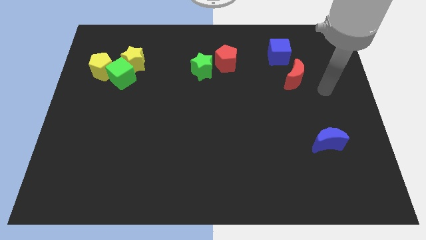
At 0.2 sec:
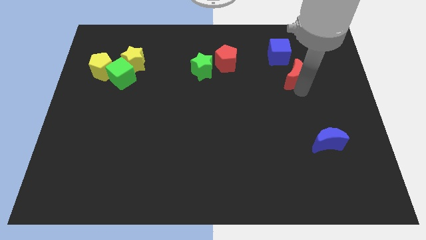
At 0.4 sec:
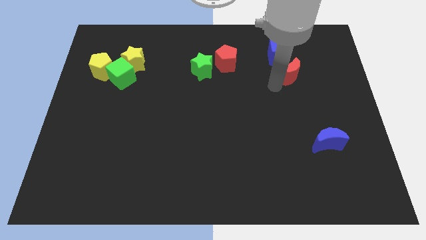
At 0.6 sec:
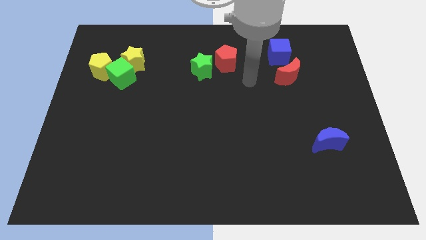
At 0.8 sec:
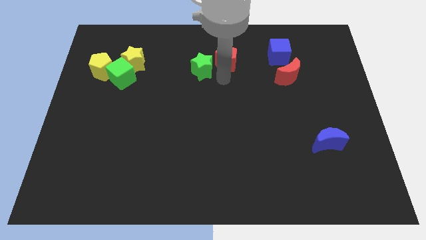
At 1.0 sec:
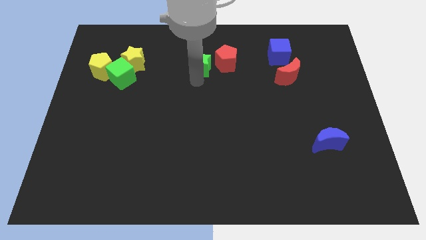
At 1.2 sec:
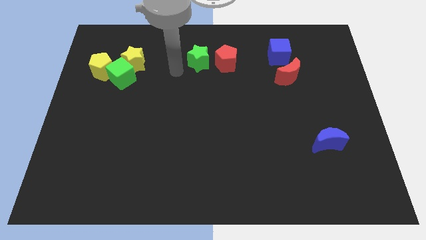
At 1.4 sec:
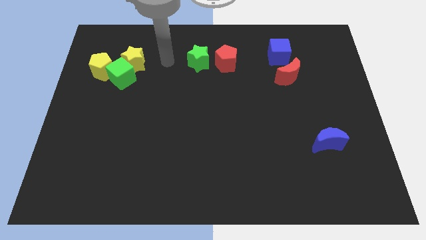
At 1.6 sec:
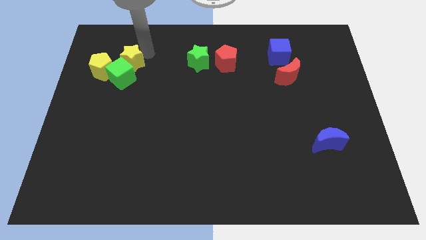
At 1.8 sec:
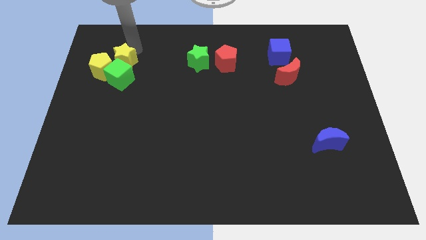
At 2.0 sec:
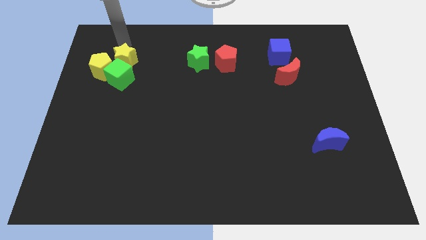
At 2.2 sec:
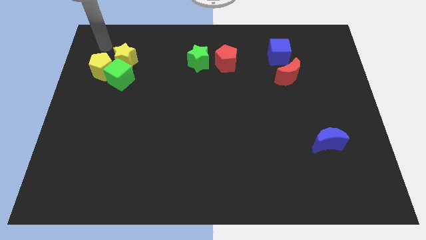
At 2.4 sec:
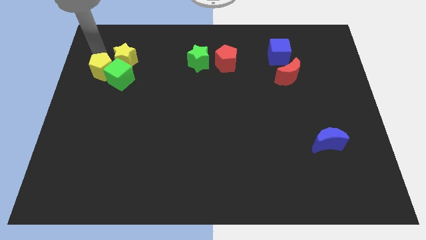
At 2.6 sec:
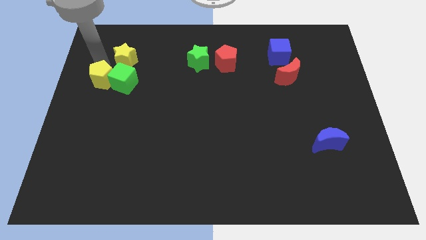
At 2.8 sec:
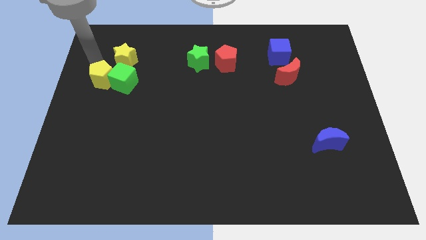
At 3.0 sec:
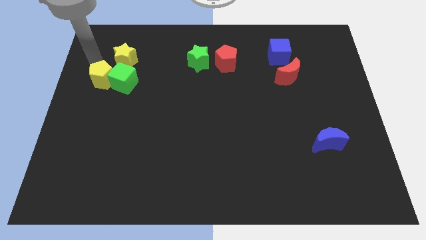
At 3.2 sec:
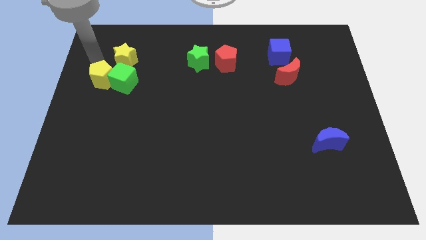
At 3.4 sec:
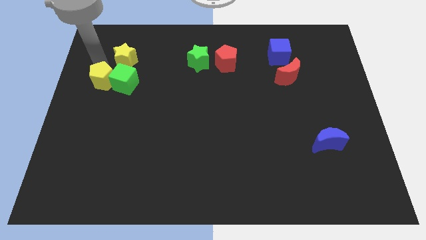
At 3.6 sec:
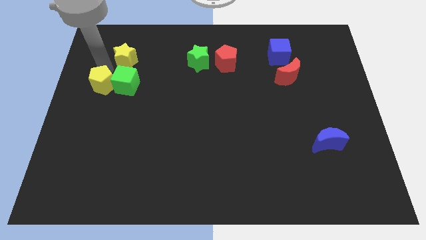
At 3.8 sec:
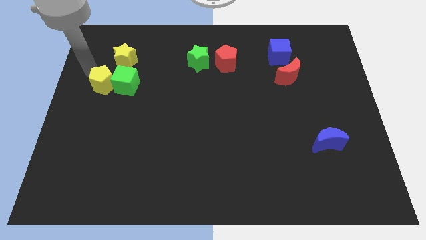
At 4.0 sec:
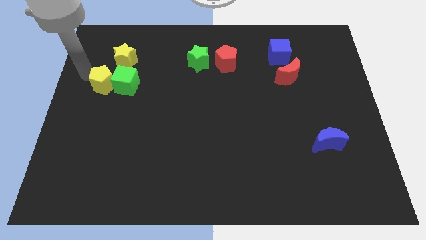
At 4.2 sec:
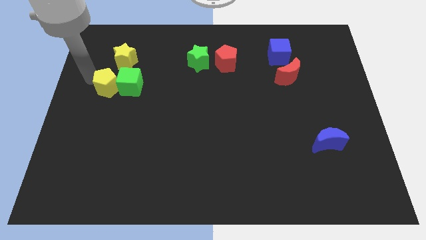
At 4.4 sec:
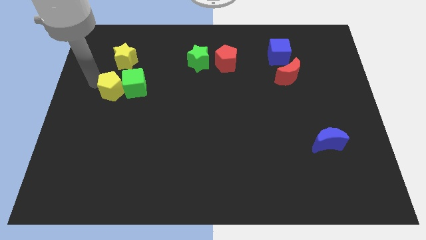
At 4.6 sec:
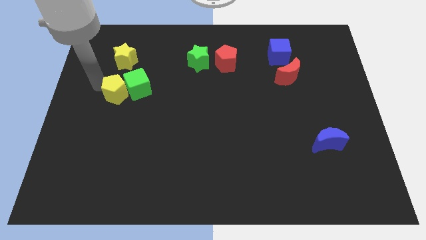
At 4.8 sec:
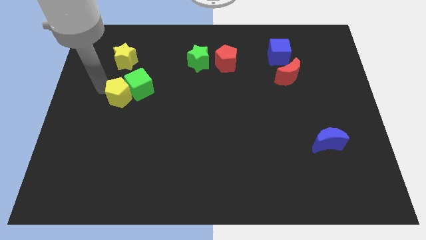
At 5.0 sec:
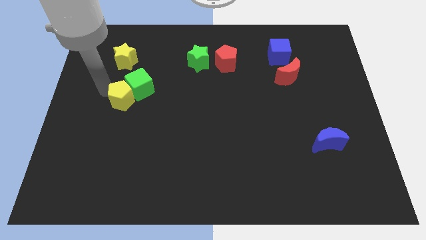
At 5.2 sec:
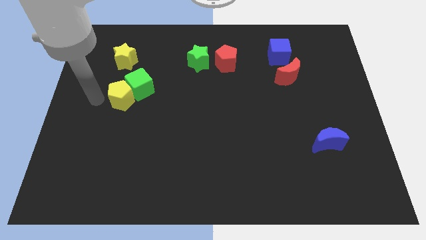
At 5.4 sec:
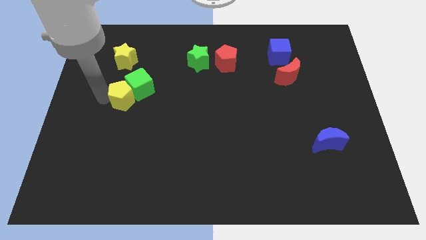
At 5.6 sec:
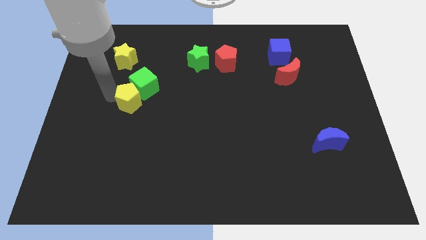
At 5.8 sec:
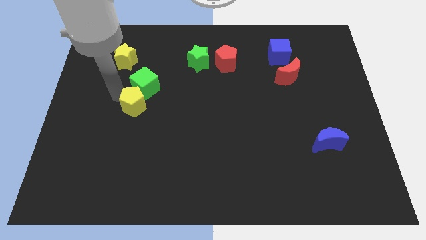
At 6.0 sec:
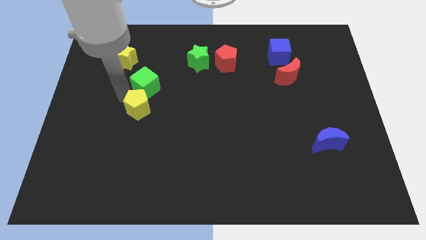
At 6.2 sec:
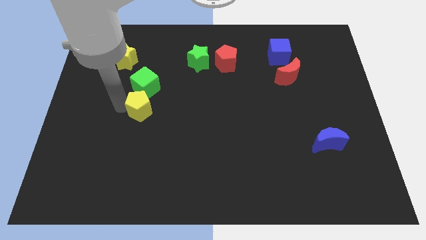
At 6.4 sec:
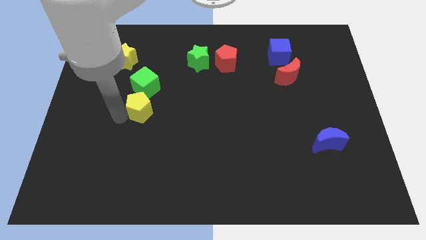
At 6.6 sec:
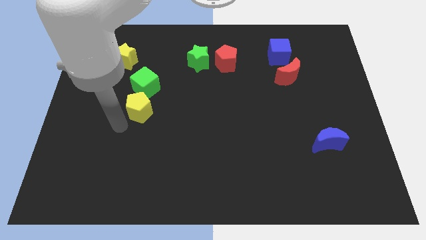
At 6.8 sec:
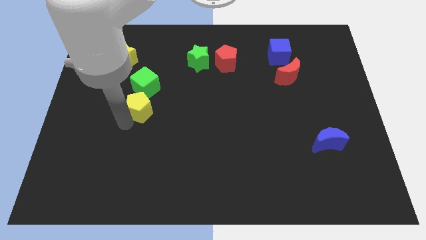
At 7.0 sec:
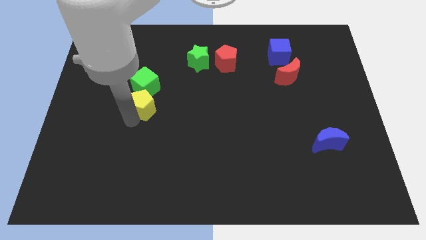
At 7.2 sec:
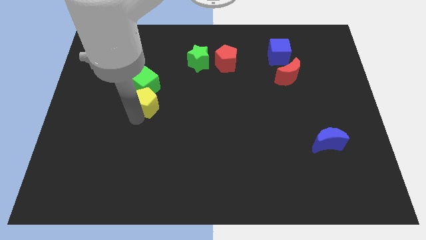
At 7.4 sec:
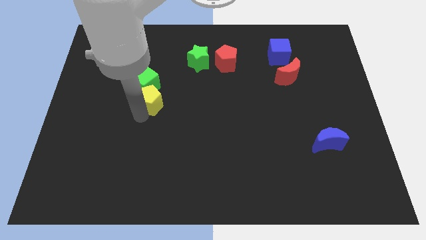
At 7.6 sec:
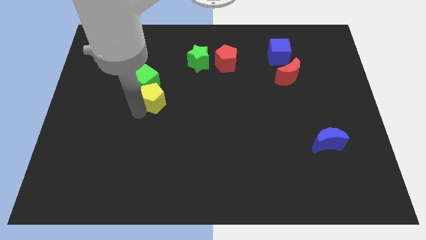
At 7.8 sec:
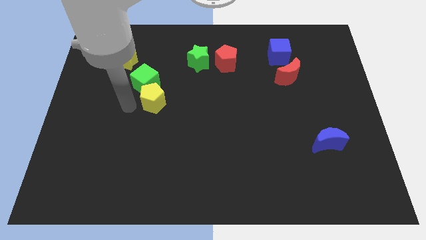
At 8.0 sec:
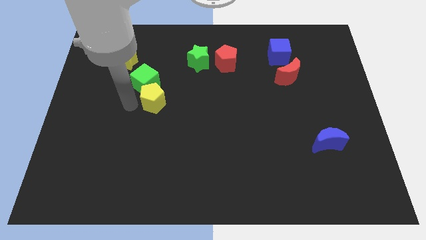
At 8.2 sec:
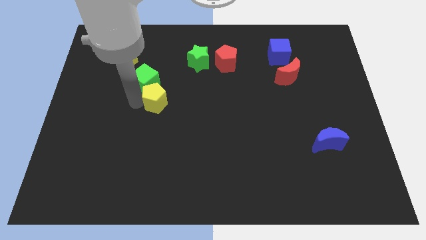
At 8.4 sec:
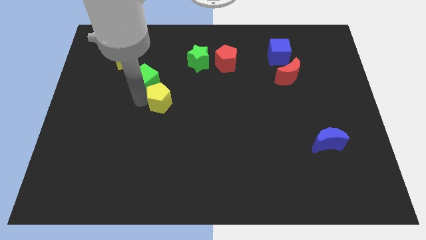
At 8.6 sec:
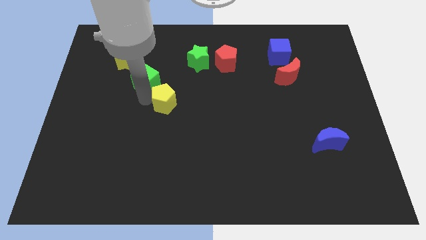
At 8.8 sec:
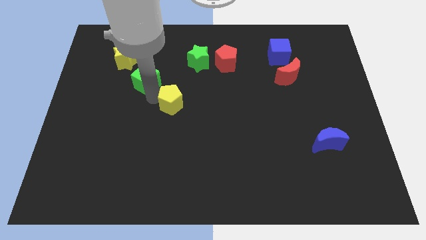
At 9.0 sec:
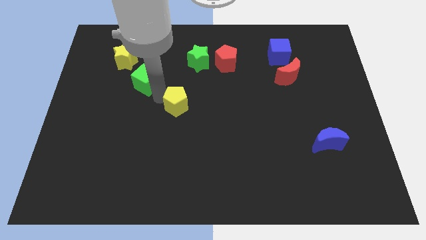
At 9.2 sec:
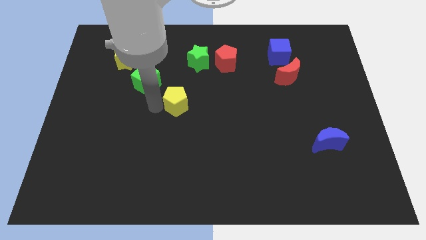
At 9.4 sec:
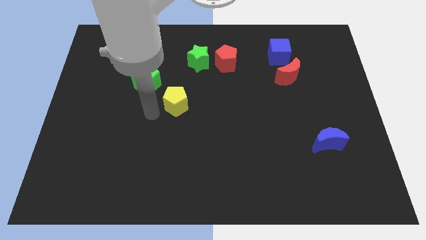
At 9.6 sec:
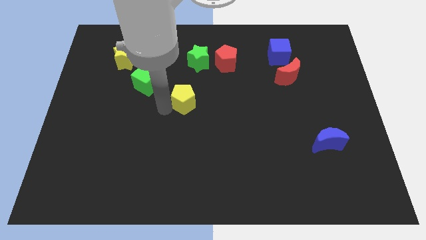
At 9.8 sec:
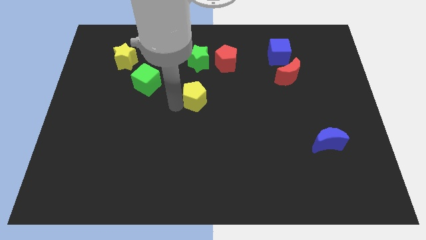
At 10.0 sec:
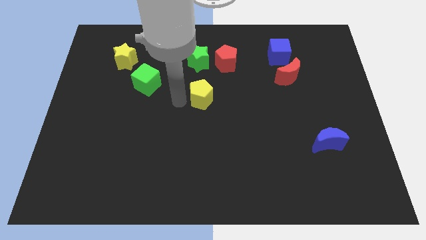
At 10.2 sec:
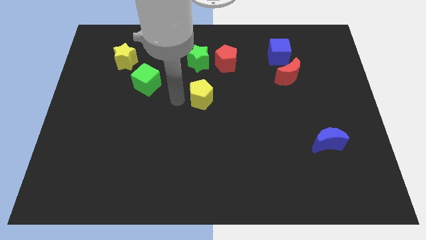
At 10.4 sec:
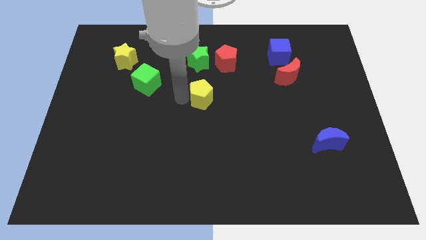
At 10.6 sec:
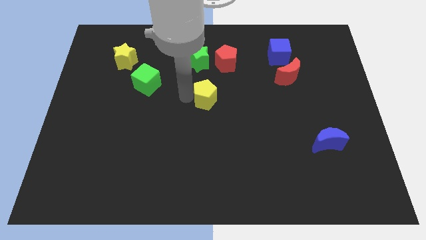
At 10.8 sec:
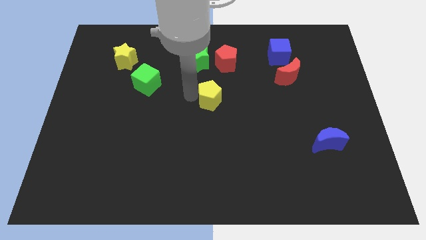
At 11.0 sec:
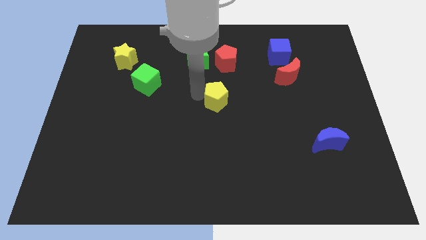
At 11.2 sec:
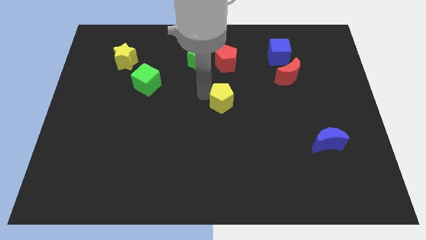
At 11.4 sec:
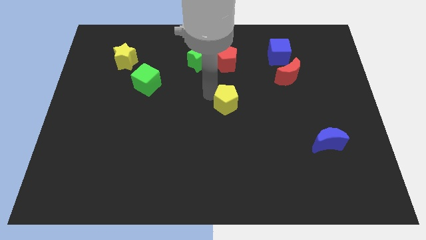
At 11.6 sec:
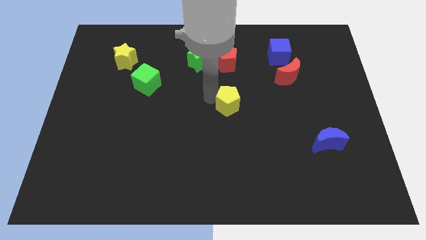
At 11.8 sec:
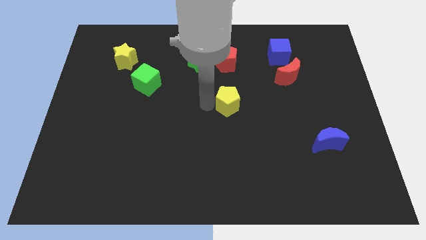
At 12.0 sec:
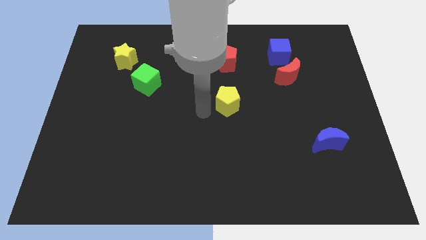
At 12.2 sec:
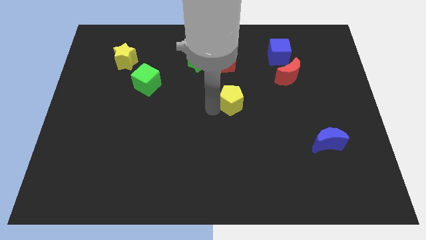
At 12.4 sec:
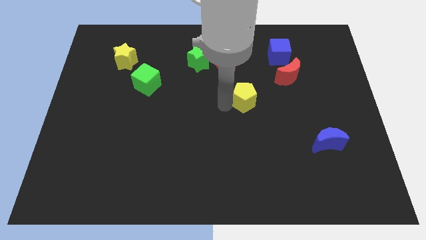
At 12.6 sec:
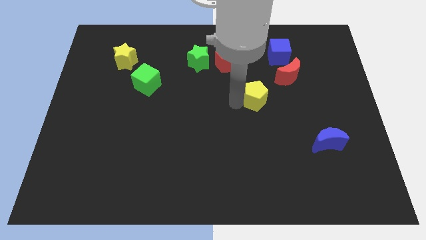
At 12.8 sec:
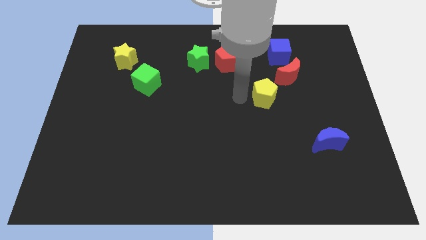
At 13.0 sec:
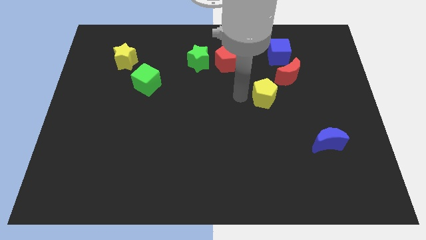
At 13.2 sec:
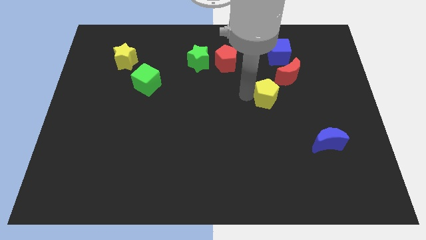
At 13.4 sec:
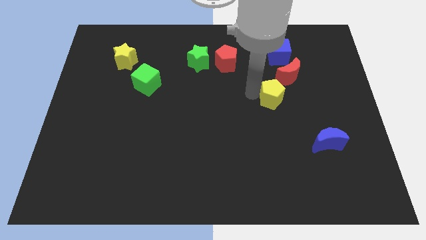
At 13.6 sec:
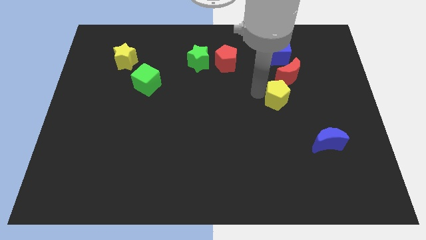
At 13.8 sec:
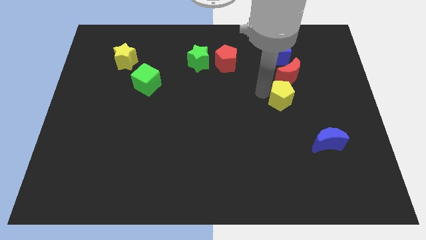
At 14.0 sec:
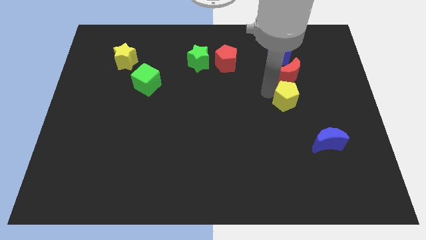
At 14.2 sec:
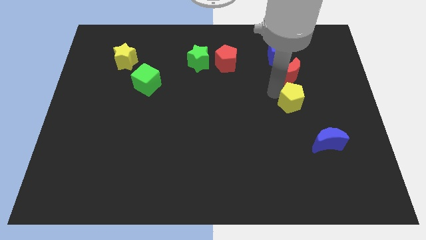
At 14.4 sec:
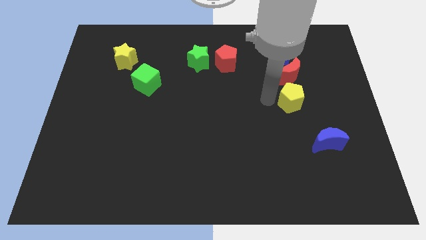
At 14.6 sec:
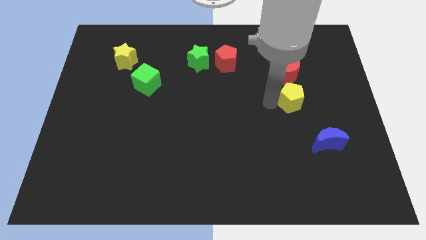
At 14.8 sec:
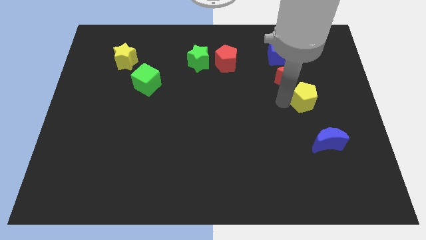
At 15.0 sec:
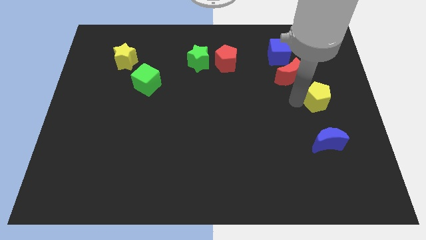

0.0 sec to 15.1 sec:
slide the yellow pentagon to the right side of the board
